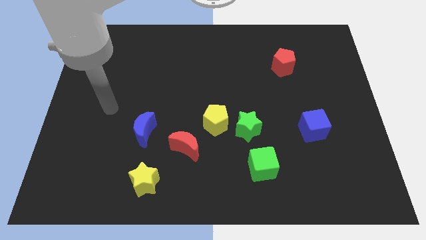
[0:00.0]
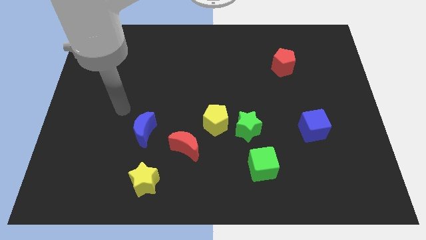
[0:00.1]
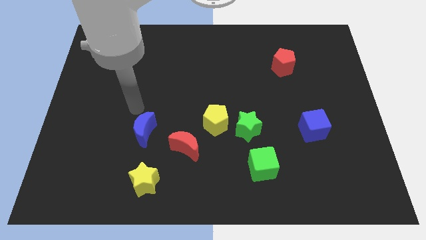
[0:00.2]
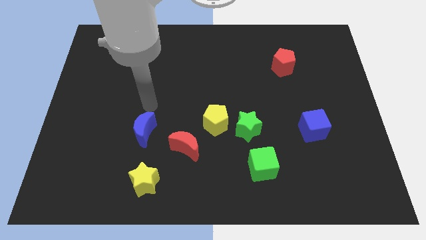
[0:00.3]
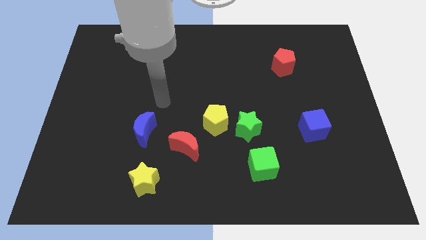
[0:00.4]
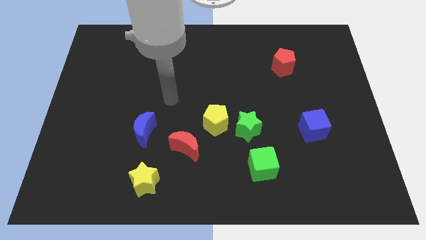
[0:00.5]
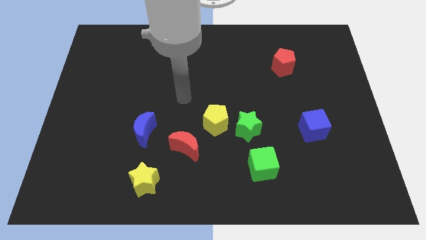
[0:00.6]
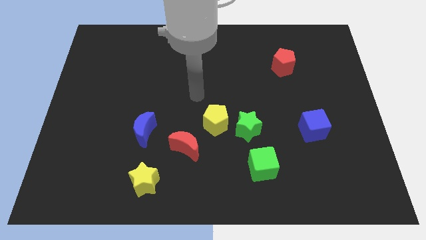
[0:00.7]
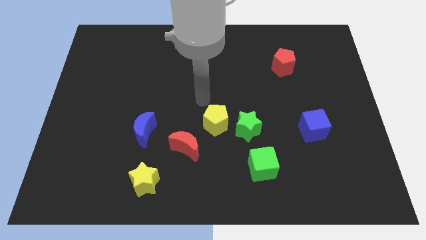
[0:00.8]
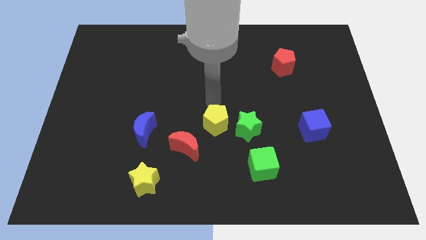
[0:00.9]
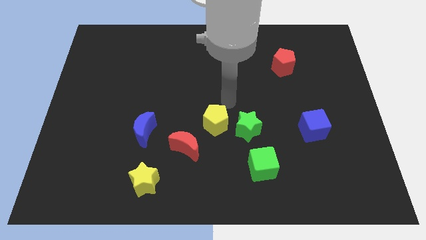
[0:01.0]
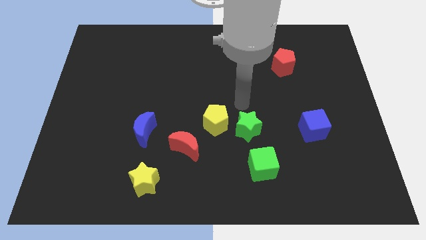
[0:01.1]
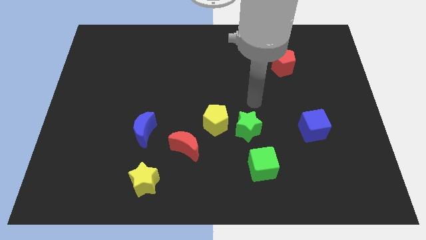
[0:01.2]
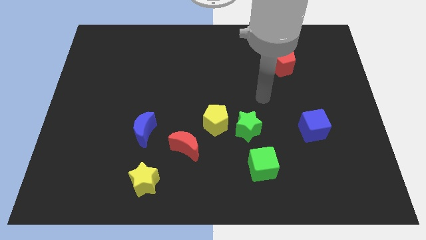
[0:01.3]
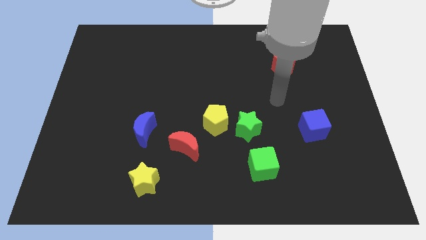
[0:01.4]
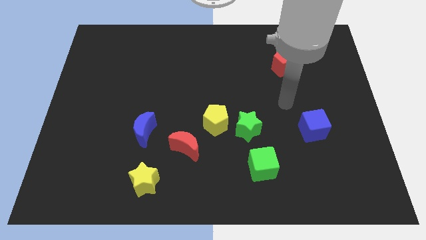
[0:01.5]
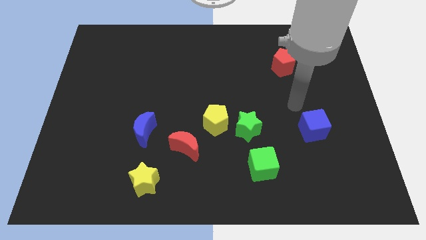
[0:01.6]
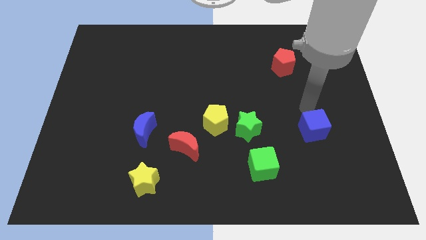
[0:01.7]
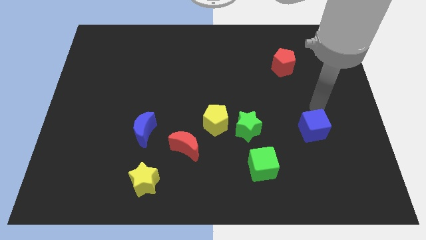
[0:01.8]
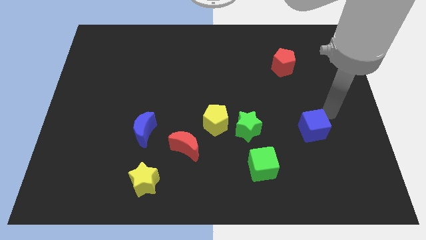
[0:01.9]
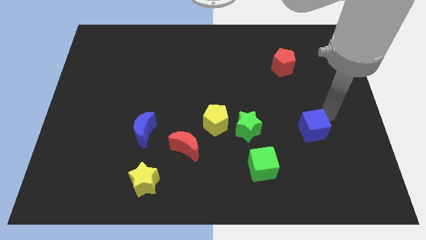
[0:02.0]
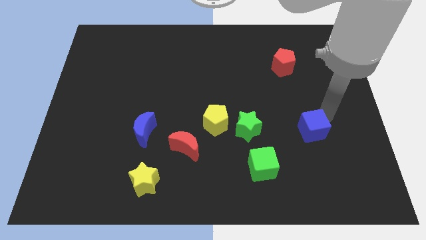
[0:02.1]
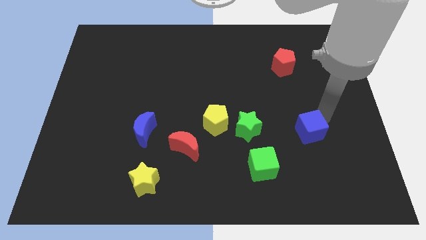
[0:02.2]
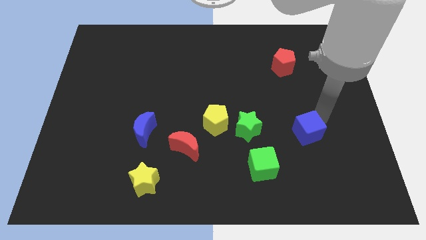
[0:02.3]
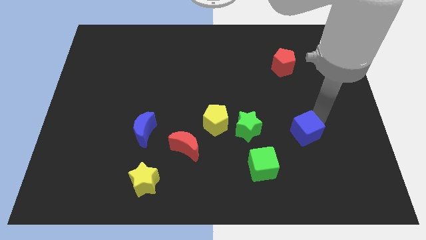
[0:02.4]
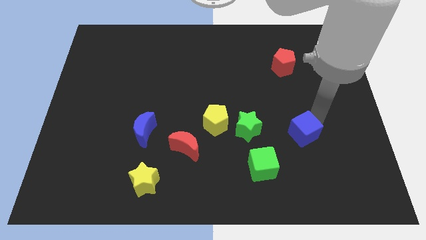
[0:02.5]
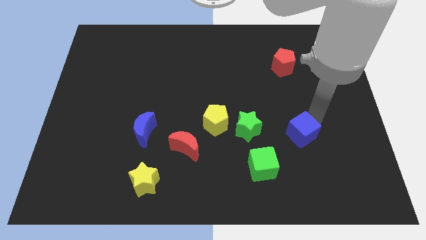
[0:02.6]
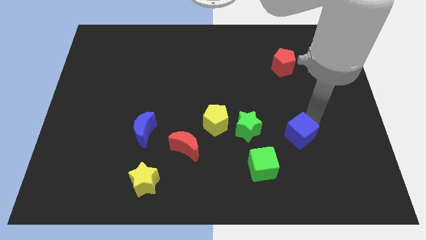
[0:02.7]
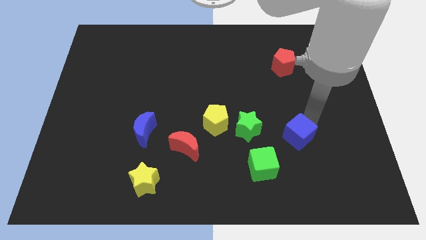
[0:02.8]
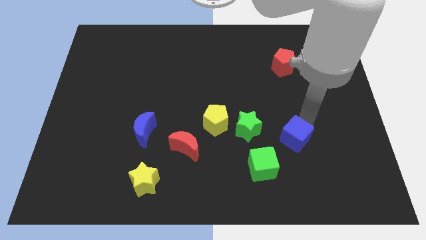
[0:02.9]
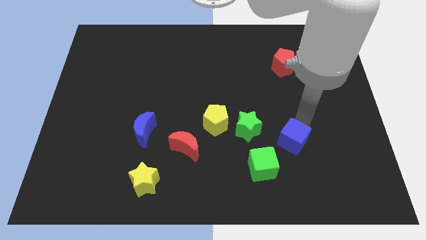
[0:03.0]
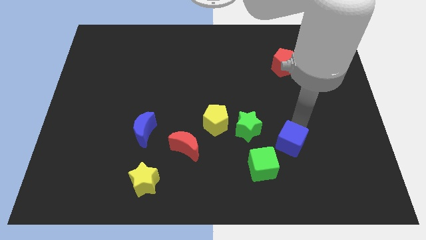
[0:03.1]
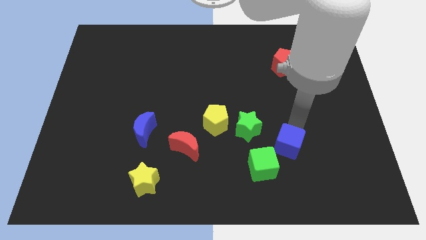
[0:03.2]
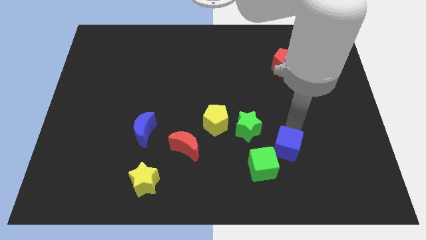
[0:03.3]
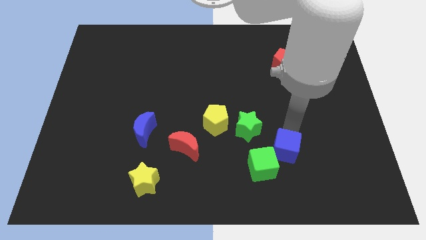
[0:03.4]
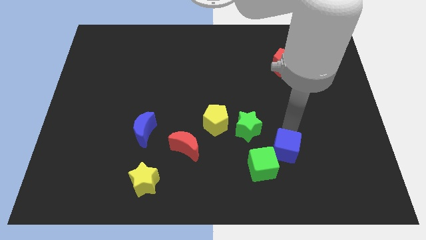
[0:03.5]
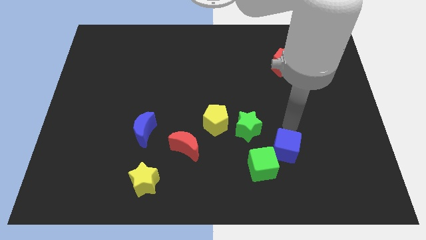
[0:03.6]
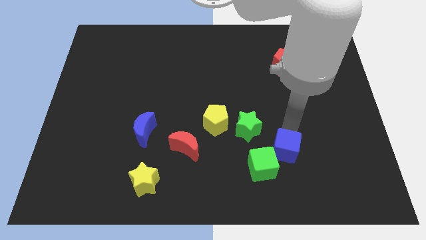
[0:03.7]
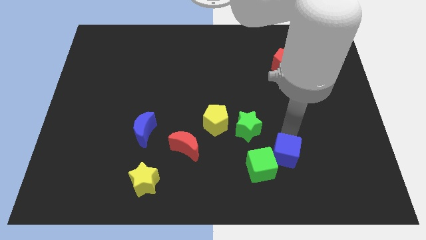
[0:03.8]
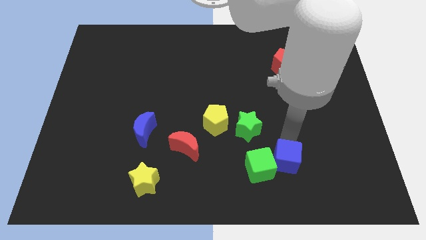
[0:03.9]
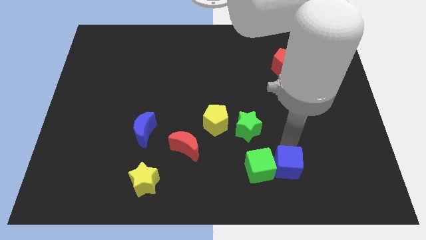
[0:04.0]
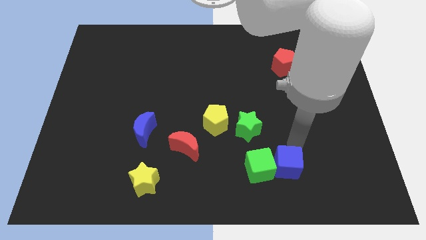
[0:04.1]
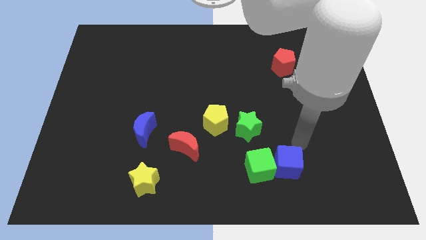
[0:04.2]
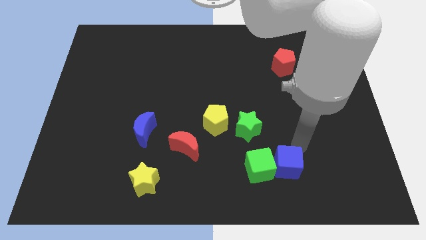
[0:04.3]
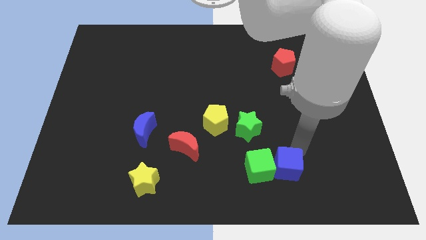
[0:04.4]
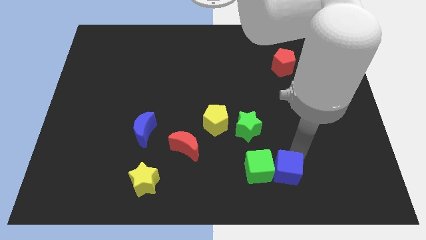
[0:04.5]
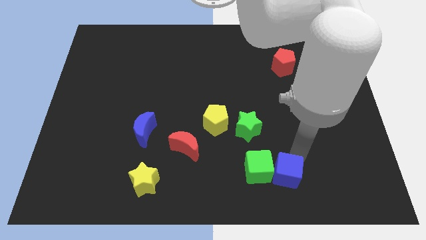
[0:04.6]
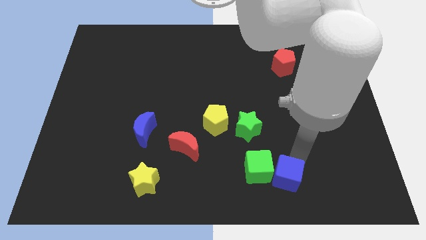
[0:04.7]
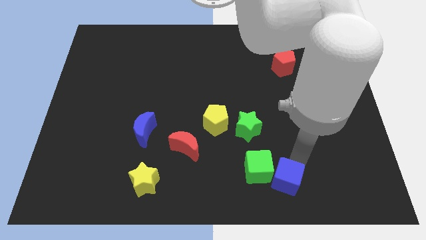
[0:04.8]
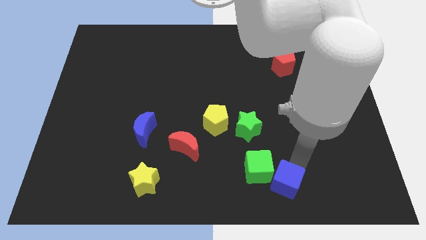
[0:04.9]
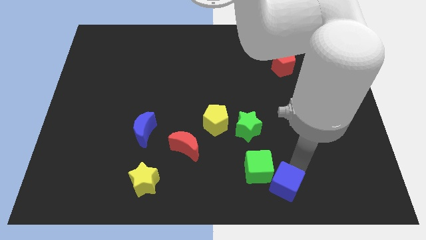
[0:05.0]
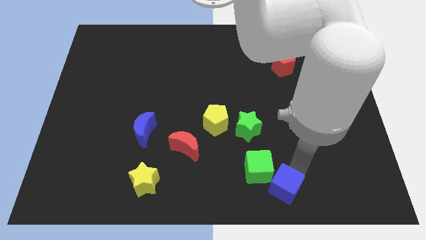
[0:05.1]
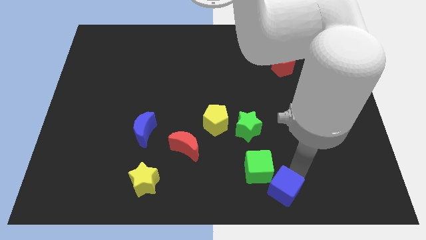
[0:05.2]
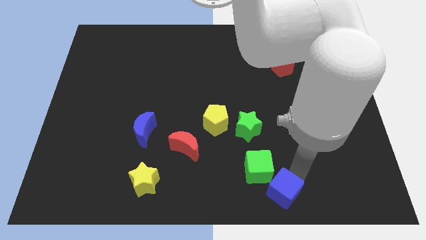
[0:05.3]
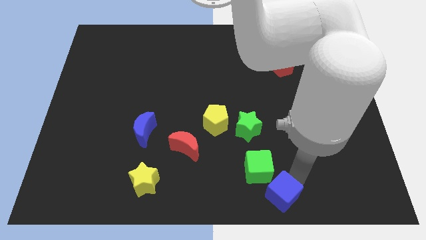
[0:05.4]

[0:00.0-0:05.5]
slide the blue cube to the bottom
